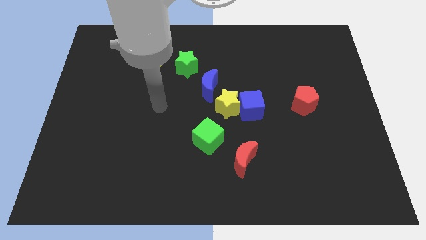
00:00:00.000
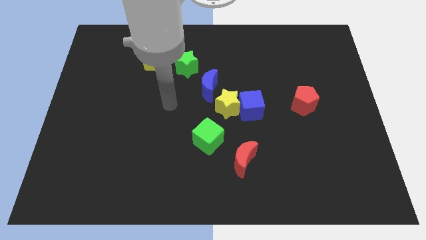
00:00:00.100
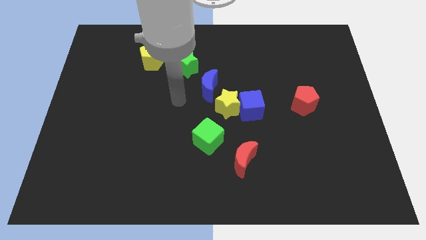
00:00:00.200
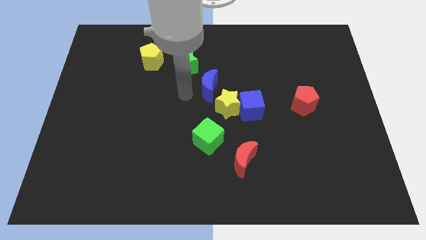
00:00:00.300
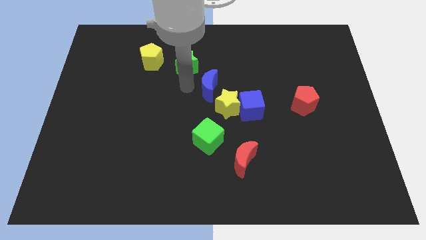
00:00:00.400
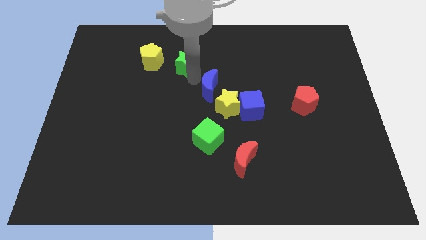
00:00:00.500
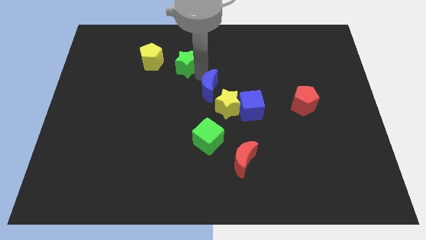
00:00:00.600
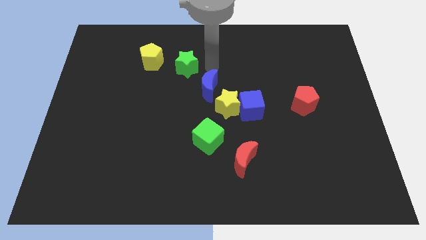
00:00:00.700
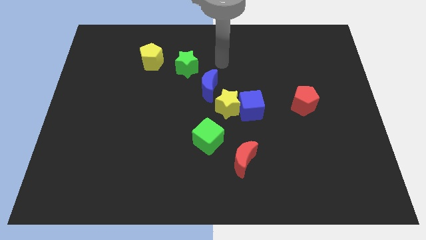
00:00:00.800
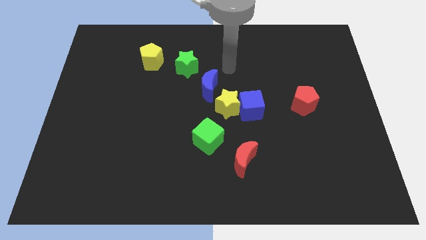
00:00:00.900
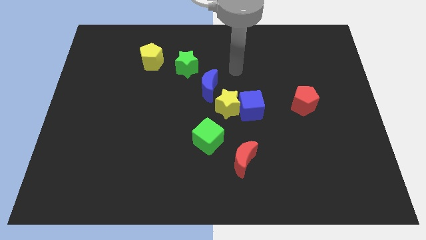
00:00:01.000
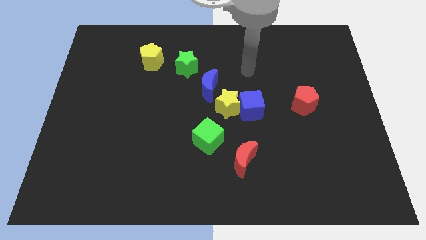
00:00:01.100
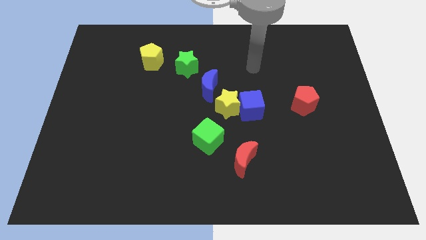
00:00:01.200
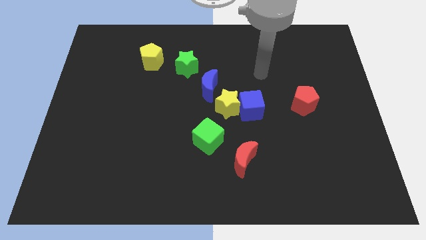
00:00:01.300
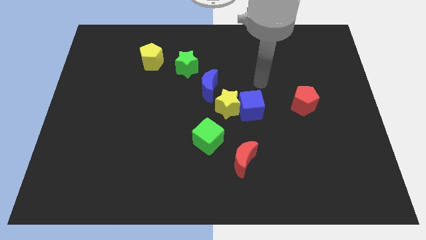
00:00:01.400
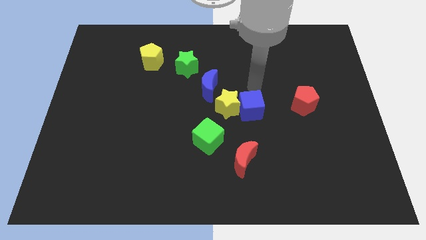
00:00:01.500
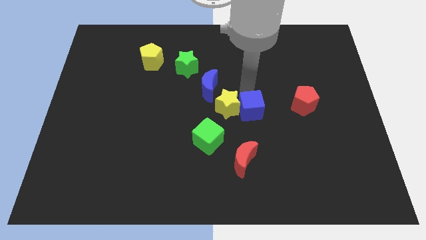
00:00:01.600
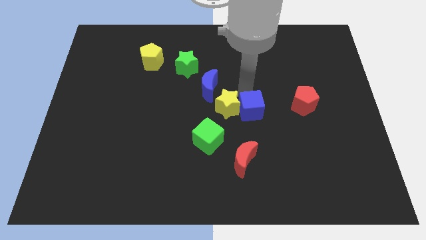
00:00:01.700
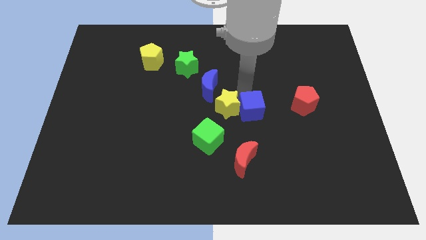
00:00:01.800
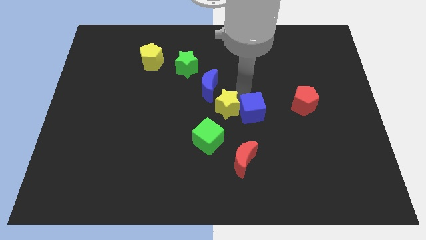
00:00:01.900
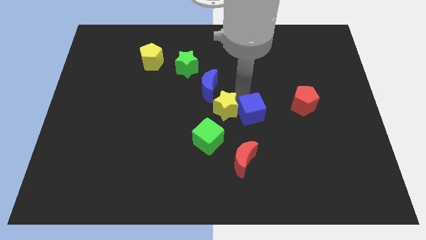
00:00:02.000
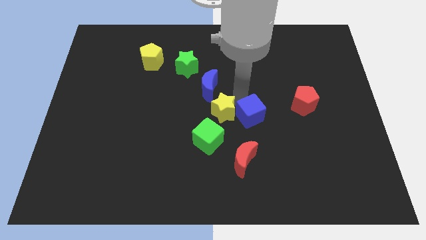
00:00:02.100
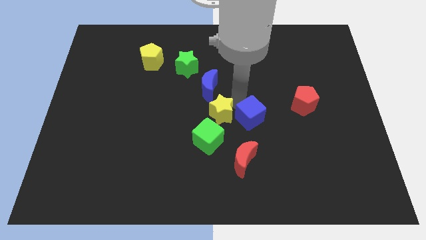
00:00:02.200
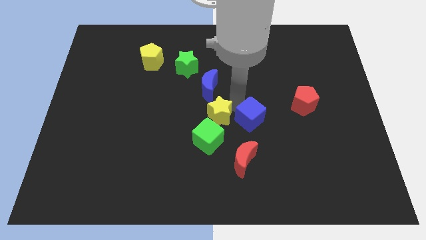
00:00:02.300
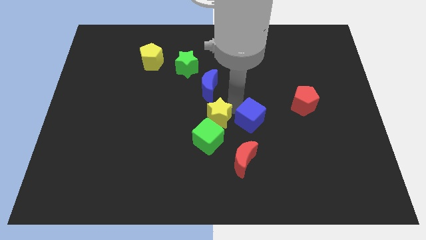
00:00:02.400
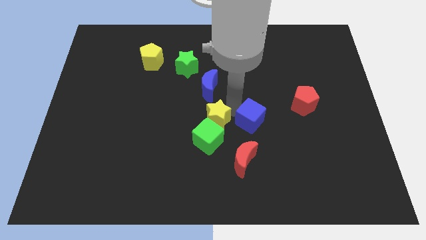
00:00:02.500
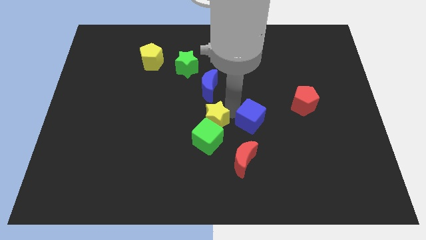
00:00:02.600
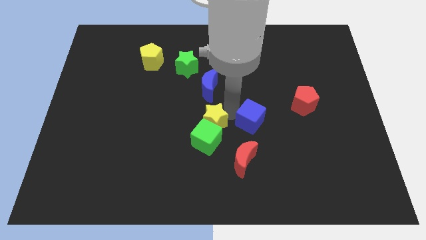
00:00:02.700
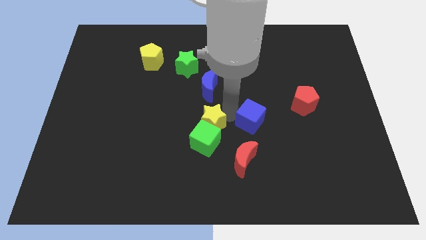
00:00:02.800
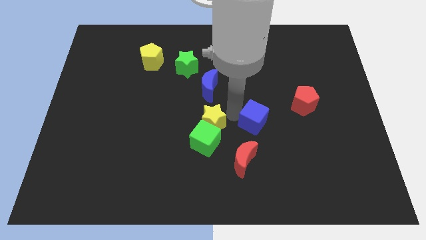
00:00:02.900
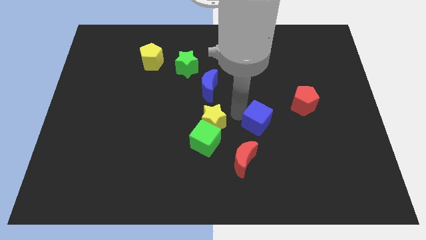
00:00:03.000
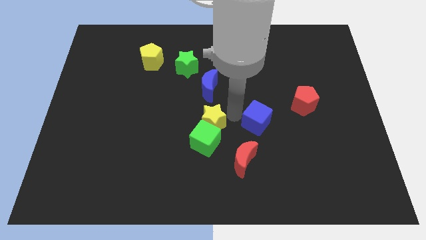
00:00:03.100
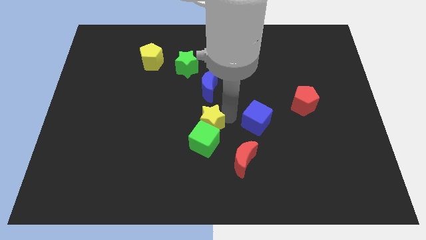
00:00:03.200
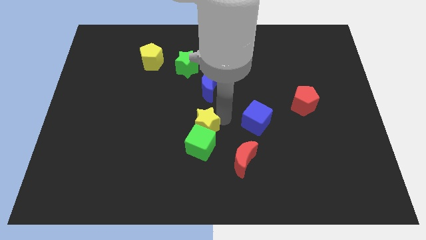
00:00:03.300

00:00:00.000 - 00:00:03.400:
move the yellow star a little diagonally downwards and to the left

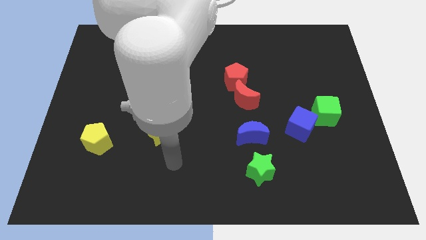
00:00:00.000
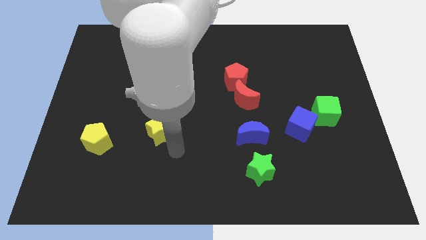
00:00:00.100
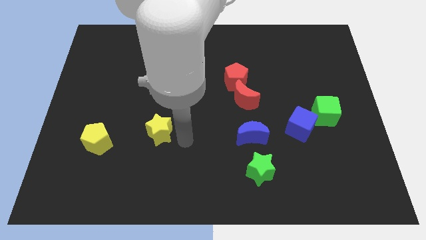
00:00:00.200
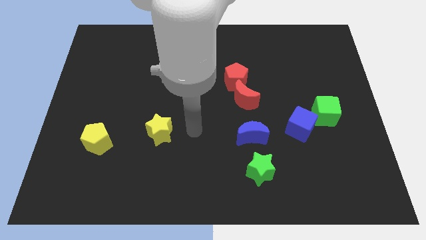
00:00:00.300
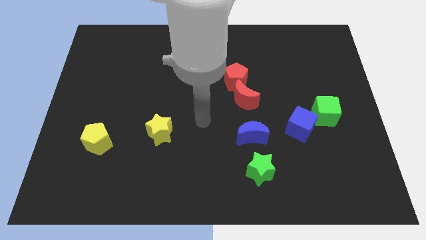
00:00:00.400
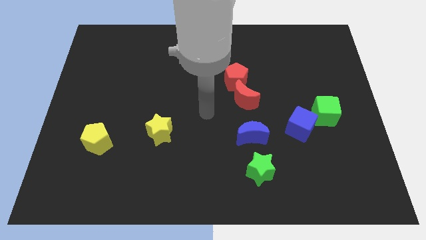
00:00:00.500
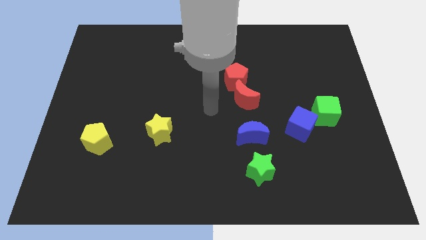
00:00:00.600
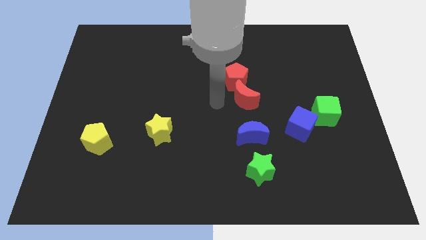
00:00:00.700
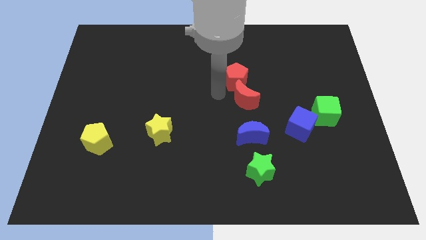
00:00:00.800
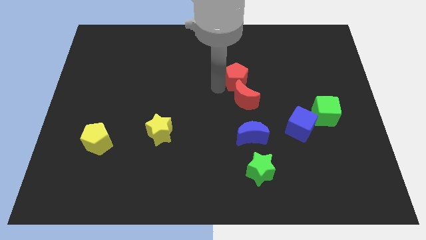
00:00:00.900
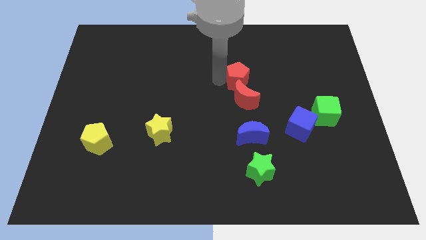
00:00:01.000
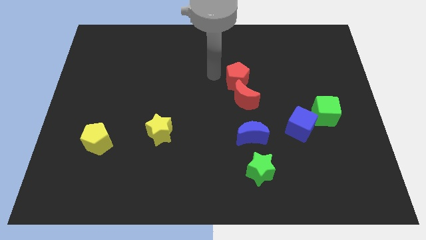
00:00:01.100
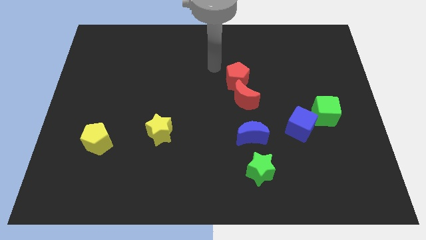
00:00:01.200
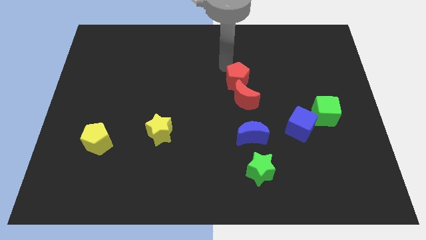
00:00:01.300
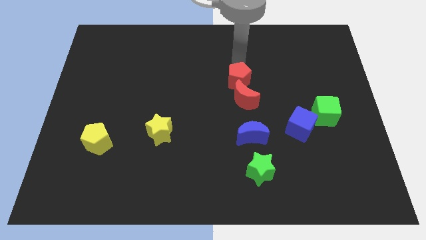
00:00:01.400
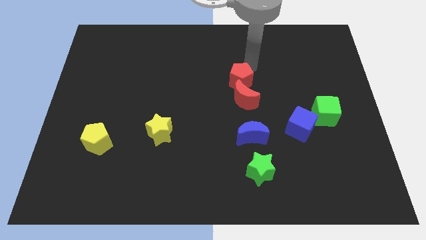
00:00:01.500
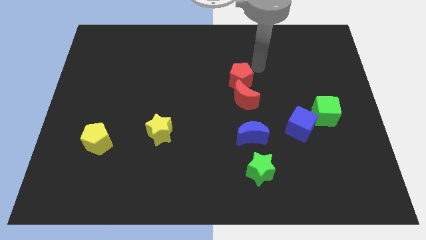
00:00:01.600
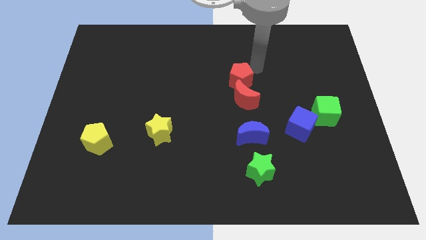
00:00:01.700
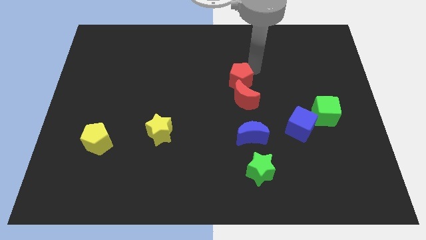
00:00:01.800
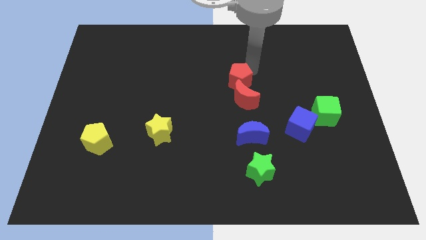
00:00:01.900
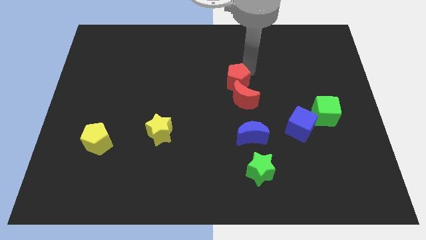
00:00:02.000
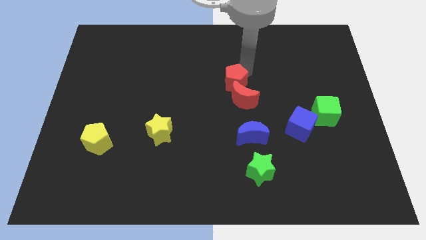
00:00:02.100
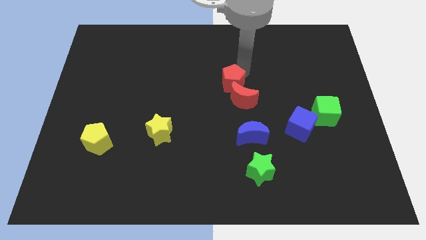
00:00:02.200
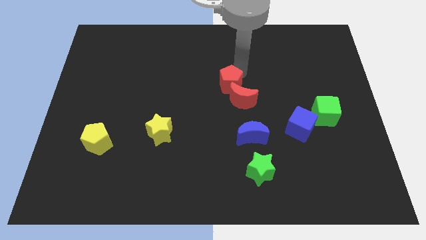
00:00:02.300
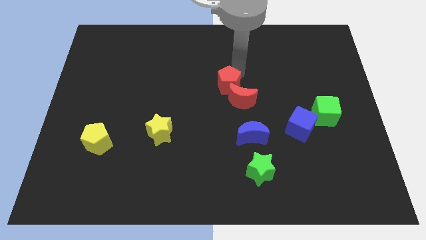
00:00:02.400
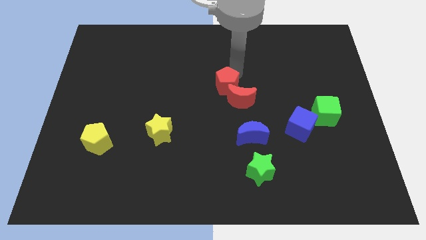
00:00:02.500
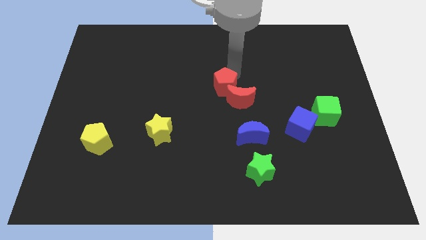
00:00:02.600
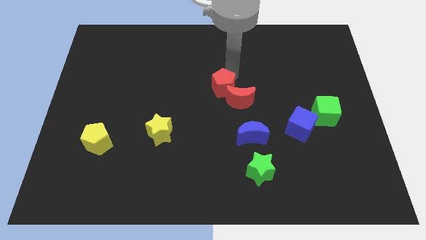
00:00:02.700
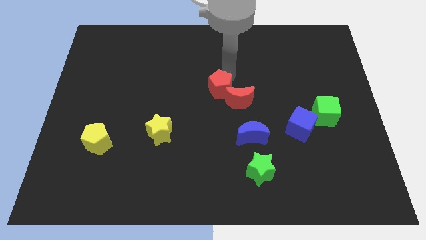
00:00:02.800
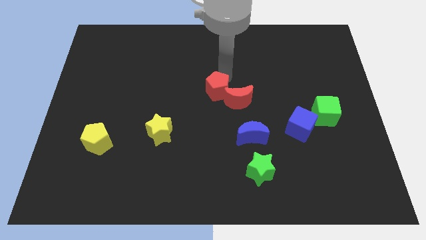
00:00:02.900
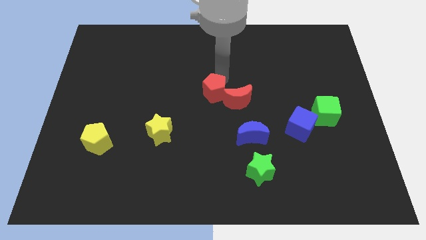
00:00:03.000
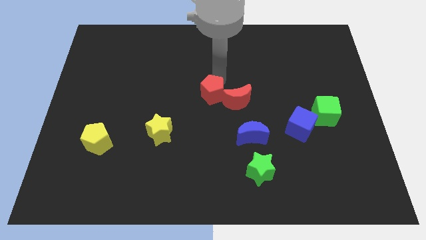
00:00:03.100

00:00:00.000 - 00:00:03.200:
slide the red pentagon slightly downwards and then to the left

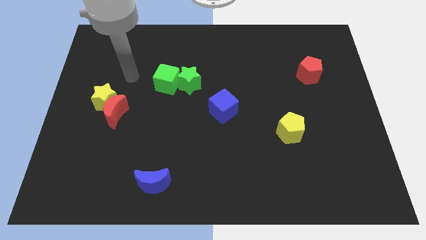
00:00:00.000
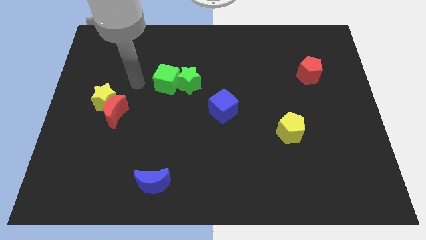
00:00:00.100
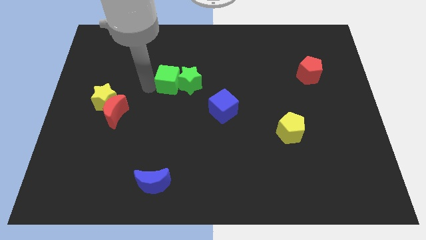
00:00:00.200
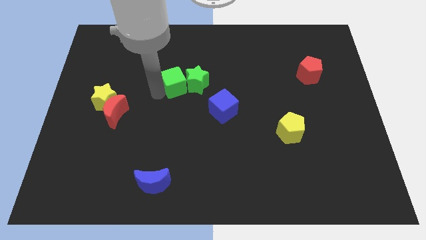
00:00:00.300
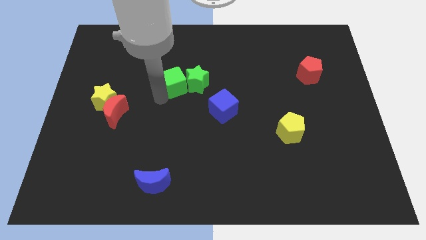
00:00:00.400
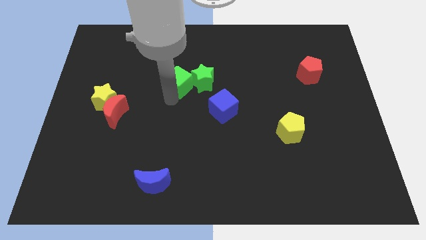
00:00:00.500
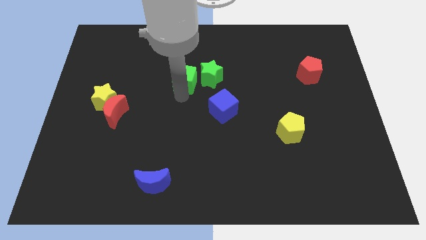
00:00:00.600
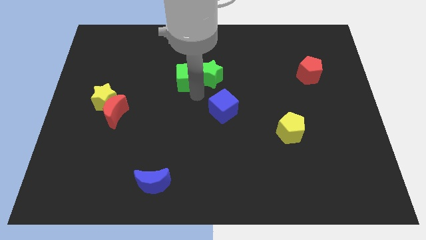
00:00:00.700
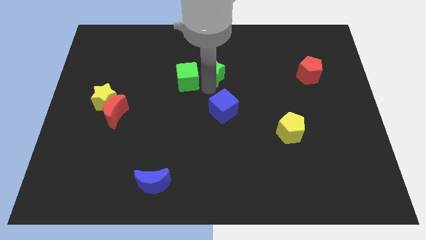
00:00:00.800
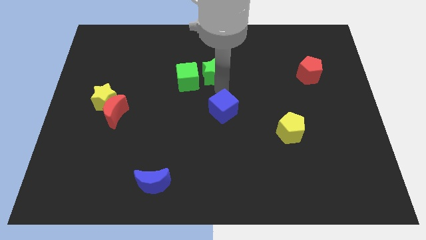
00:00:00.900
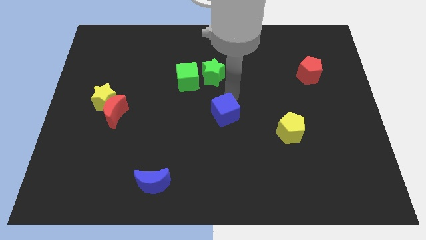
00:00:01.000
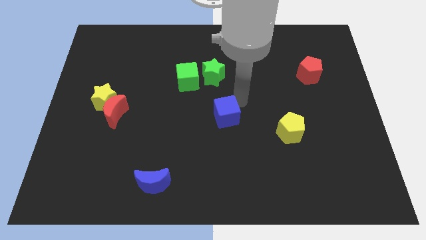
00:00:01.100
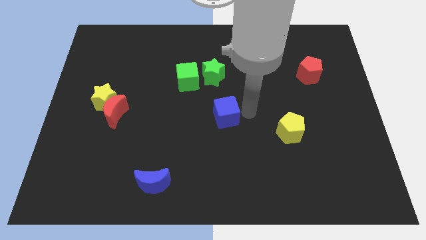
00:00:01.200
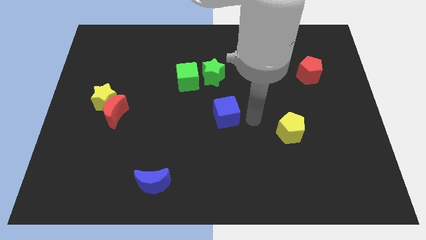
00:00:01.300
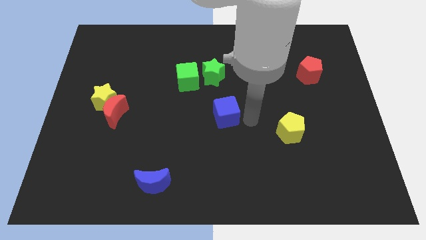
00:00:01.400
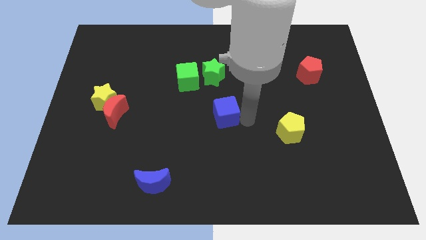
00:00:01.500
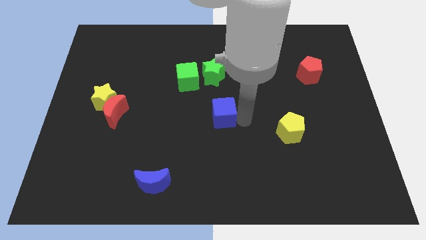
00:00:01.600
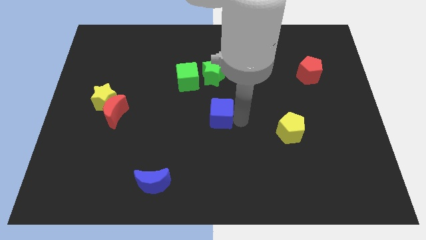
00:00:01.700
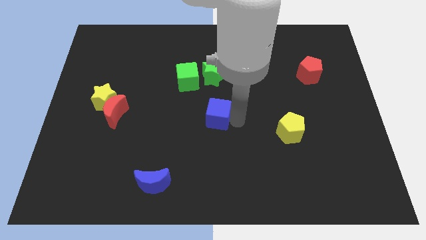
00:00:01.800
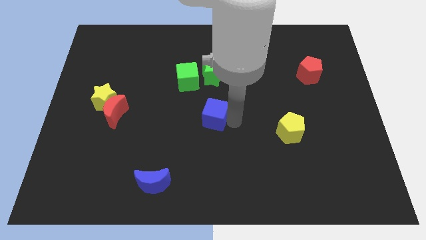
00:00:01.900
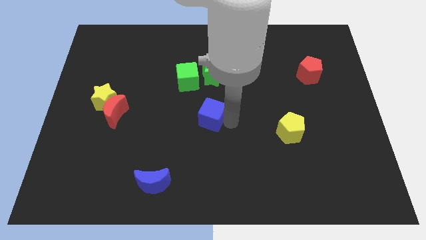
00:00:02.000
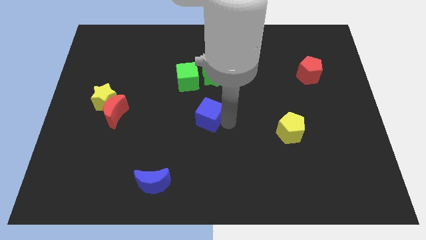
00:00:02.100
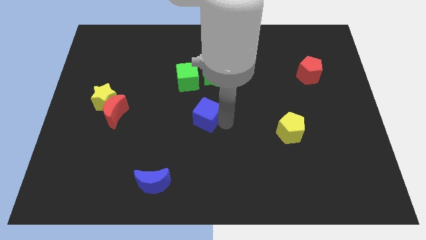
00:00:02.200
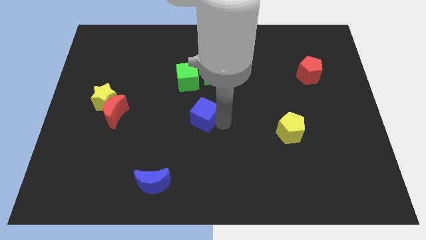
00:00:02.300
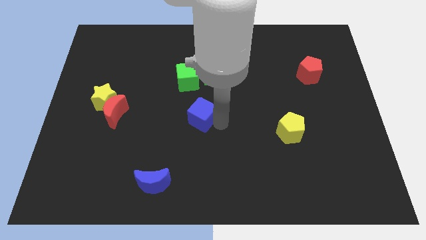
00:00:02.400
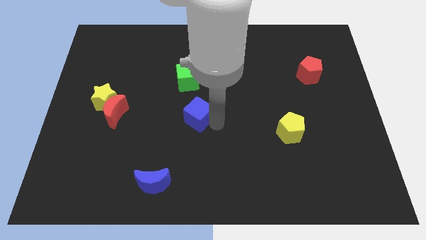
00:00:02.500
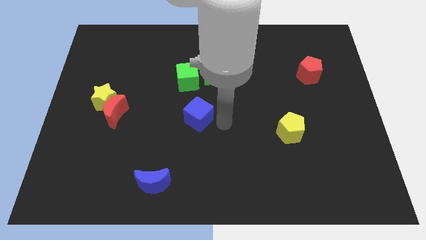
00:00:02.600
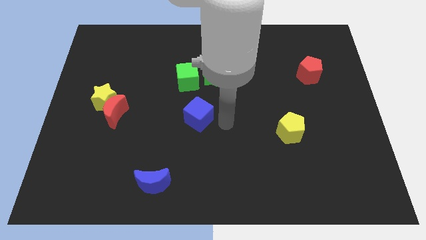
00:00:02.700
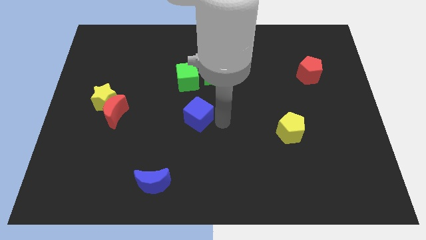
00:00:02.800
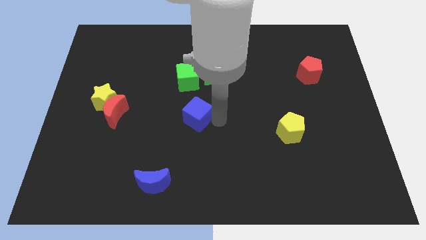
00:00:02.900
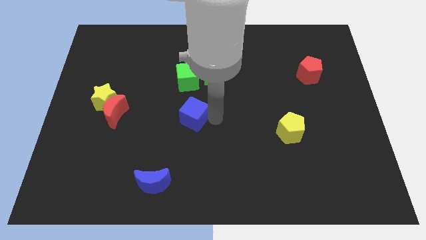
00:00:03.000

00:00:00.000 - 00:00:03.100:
move the blue cube a little left
